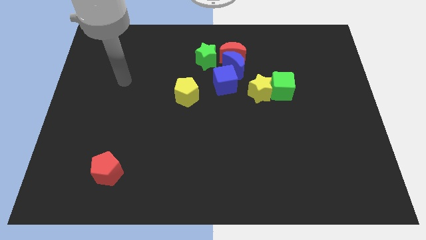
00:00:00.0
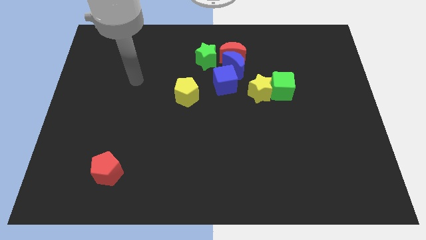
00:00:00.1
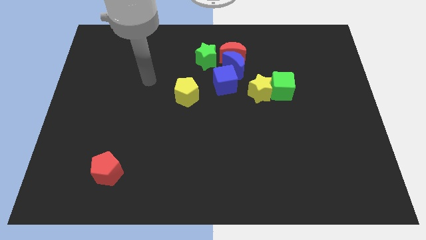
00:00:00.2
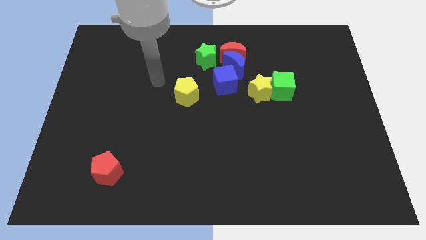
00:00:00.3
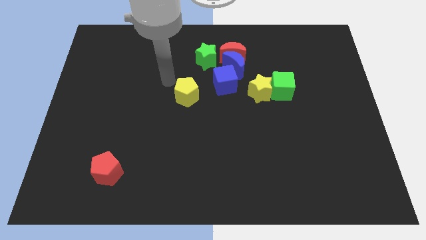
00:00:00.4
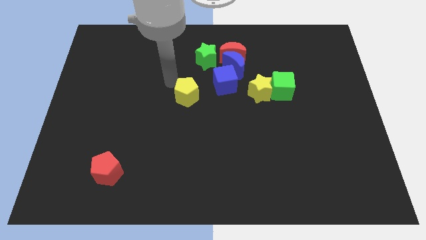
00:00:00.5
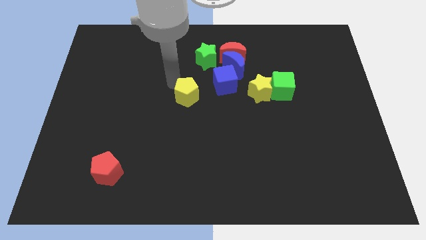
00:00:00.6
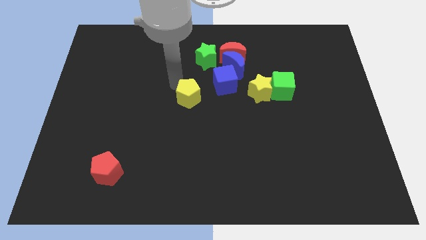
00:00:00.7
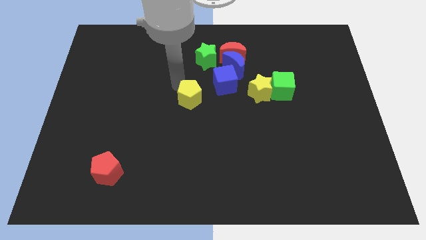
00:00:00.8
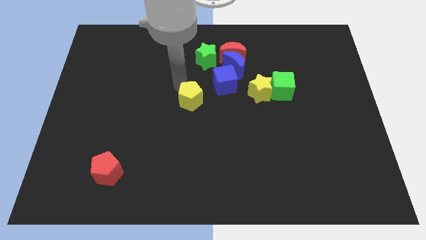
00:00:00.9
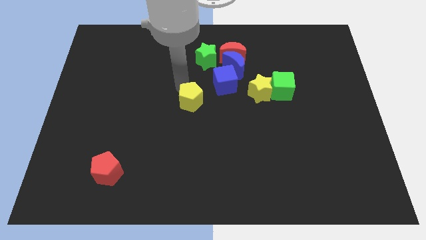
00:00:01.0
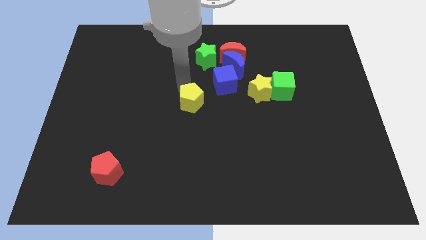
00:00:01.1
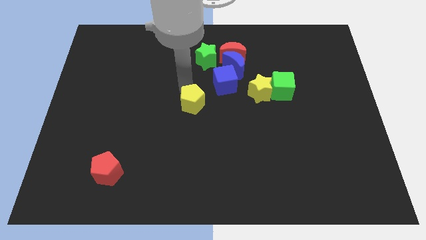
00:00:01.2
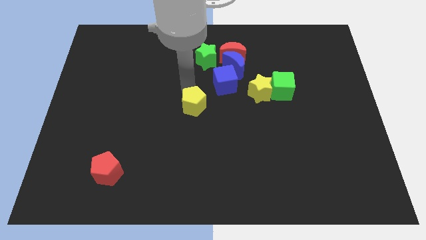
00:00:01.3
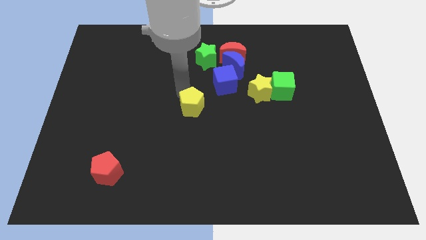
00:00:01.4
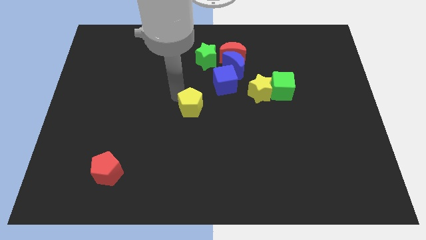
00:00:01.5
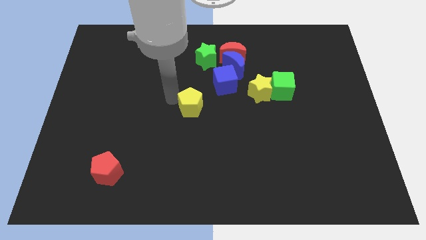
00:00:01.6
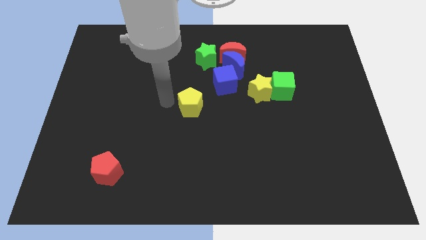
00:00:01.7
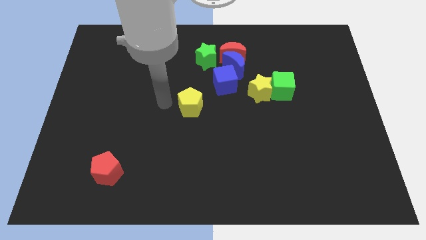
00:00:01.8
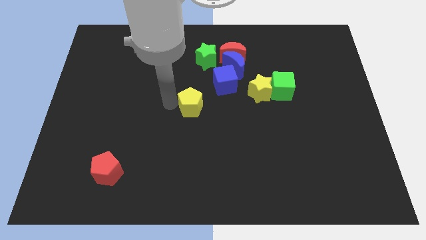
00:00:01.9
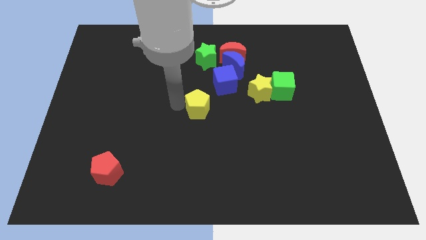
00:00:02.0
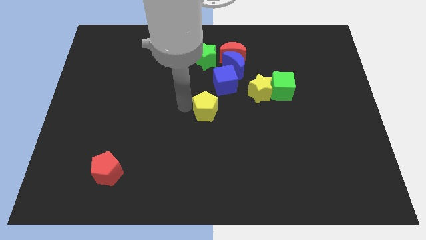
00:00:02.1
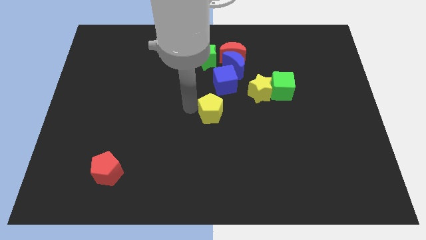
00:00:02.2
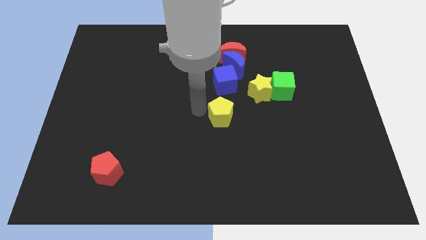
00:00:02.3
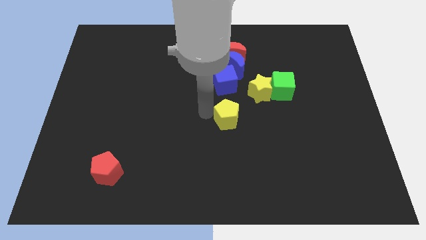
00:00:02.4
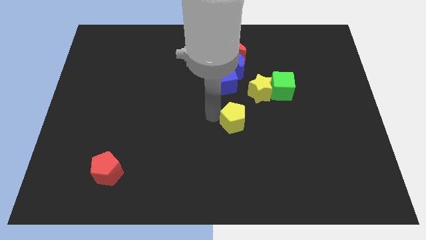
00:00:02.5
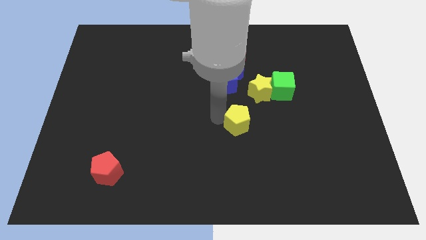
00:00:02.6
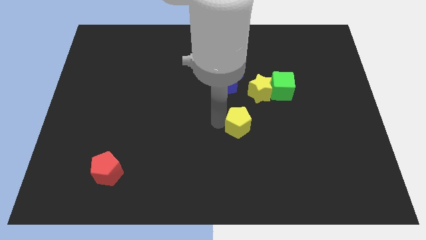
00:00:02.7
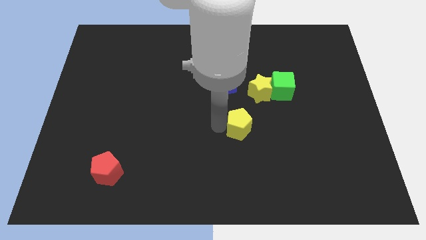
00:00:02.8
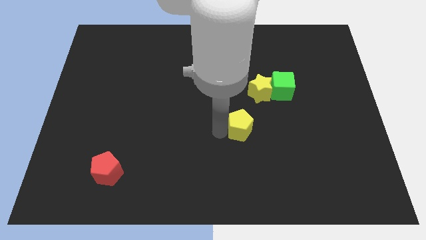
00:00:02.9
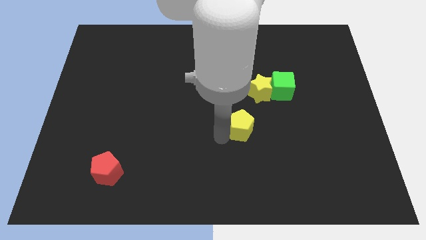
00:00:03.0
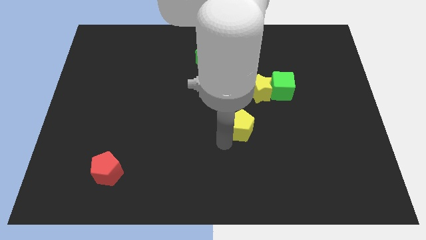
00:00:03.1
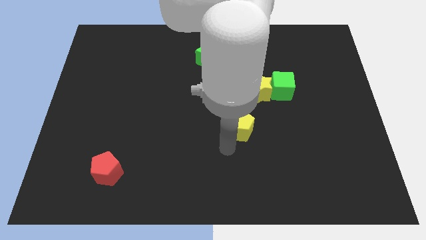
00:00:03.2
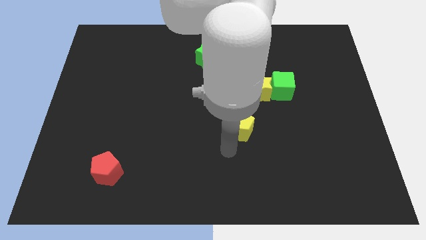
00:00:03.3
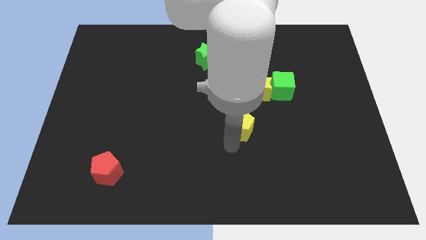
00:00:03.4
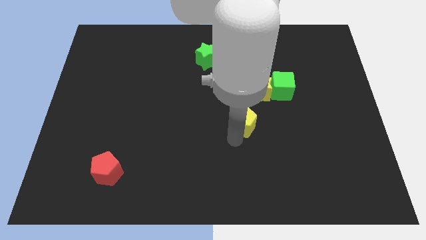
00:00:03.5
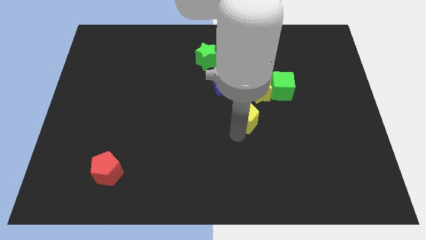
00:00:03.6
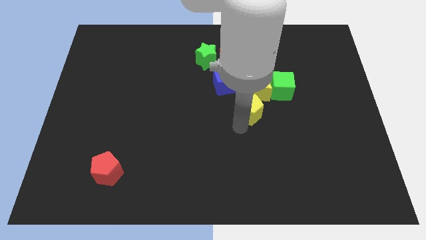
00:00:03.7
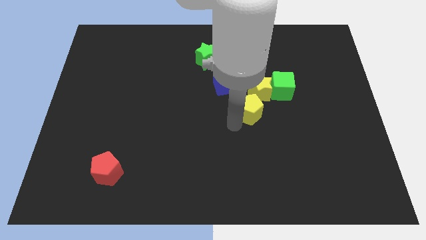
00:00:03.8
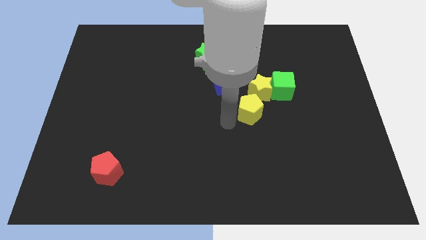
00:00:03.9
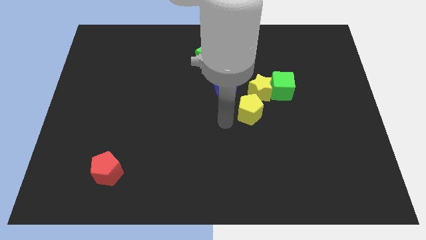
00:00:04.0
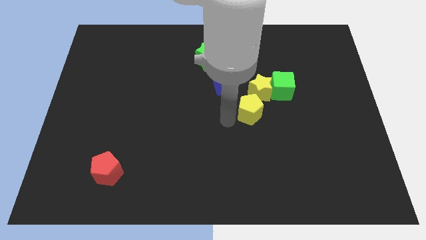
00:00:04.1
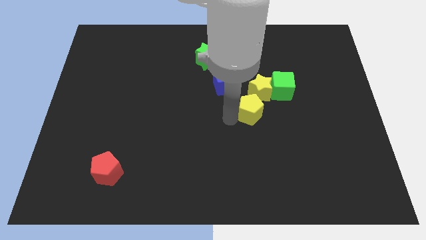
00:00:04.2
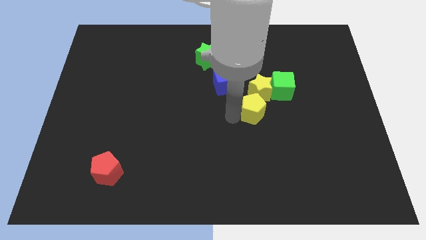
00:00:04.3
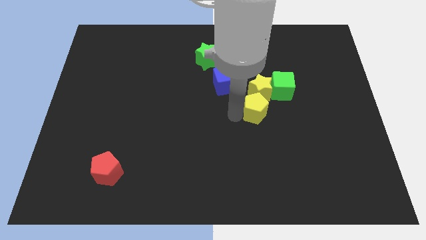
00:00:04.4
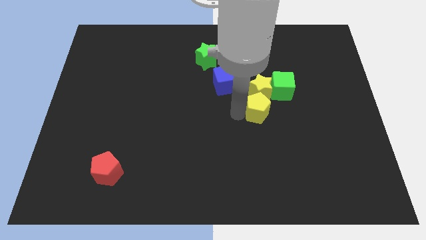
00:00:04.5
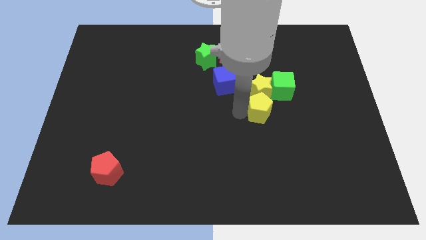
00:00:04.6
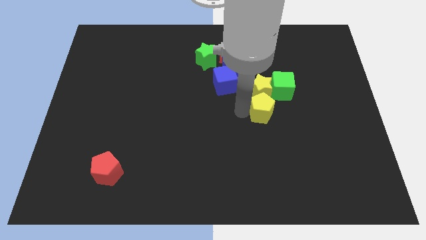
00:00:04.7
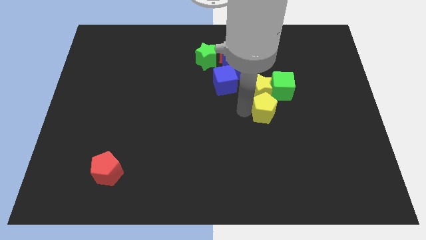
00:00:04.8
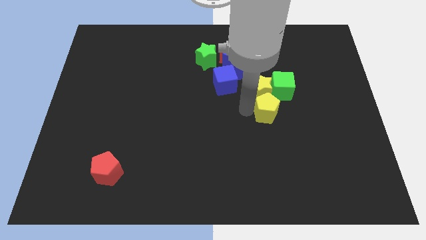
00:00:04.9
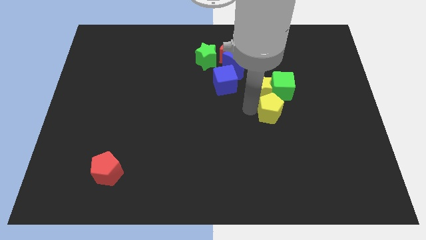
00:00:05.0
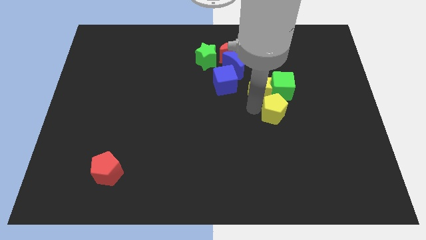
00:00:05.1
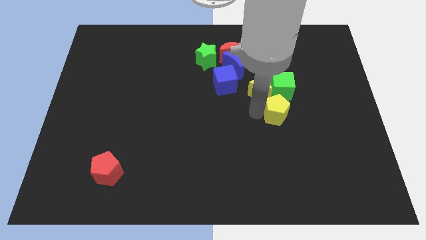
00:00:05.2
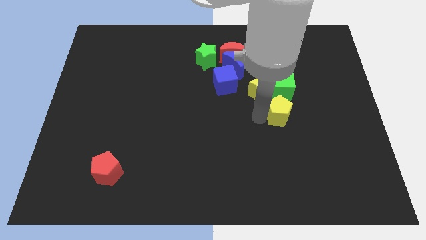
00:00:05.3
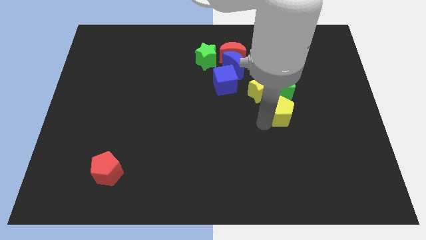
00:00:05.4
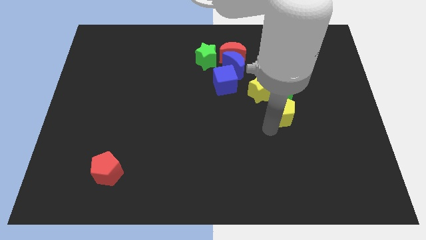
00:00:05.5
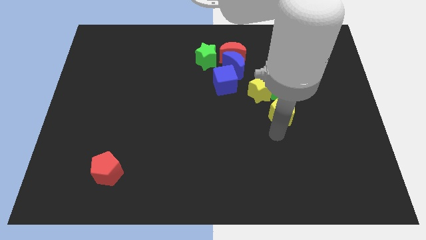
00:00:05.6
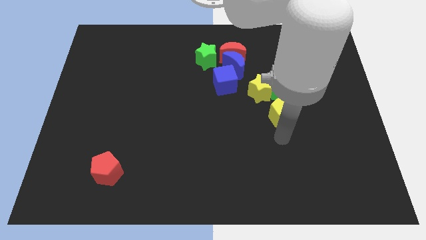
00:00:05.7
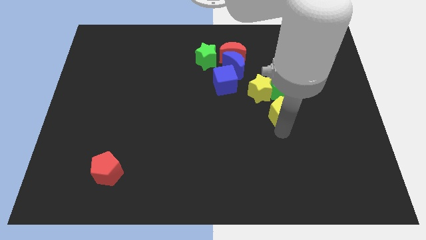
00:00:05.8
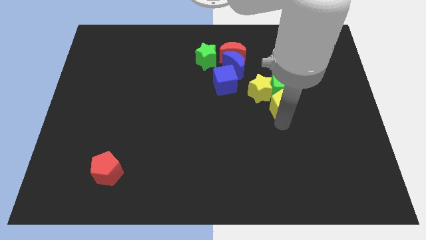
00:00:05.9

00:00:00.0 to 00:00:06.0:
move the yellow pentagon next to the green cube

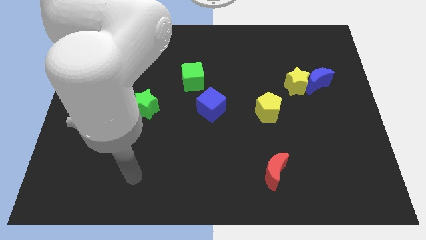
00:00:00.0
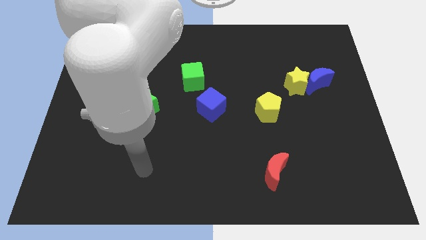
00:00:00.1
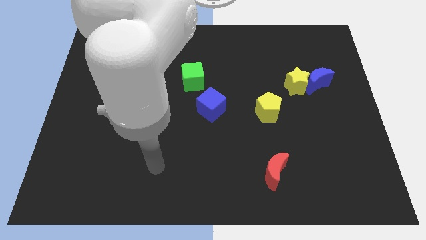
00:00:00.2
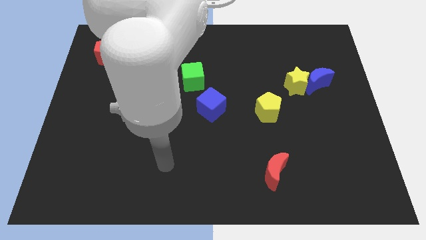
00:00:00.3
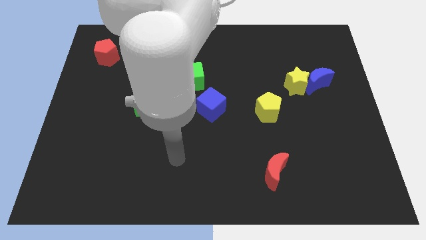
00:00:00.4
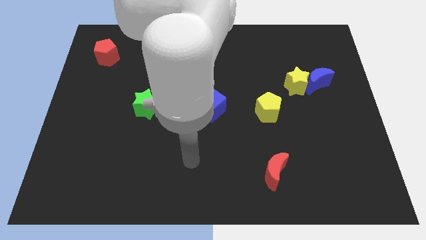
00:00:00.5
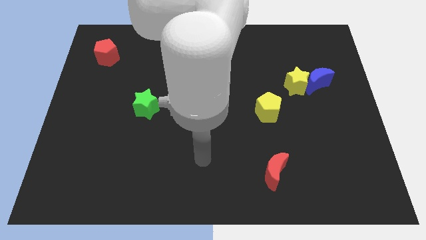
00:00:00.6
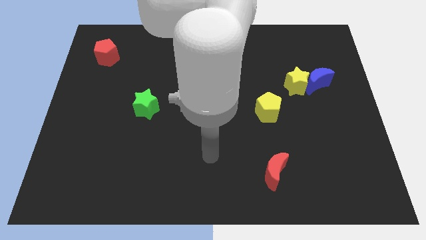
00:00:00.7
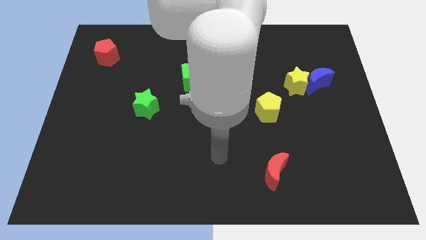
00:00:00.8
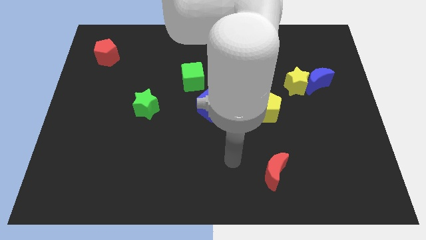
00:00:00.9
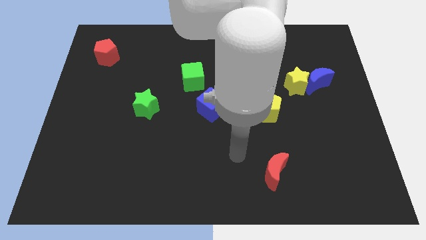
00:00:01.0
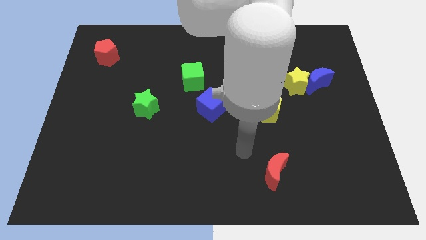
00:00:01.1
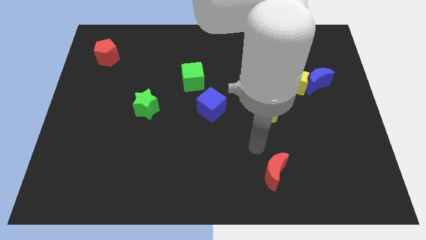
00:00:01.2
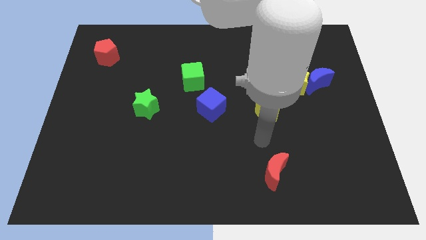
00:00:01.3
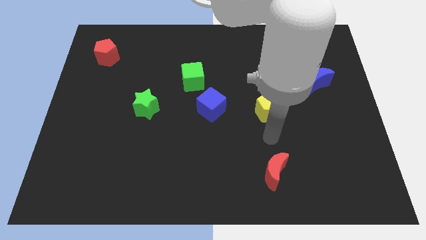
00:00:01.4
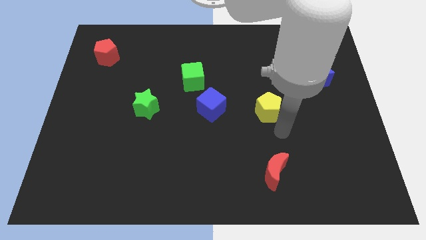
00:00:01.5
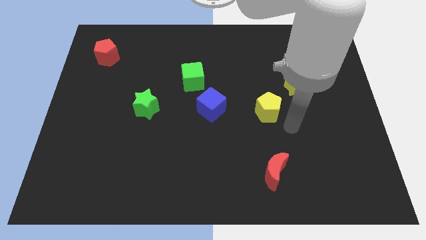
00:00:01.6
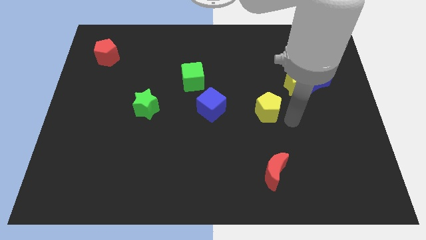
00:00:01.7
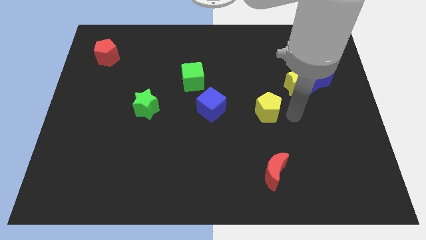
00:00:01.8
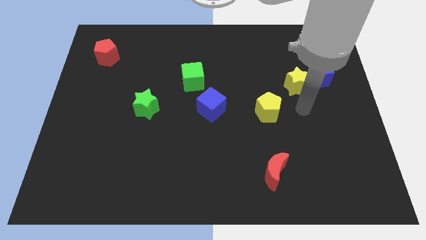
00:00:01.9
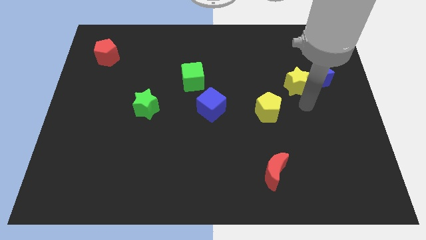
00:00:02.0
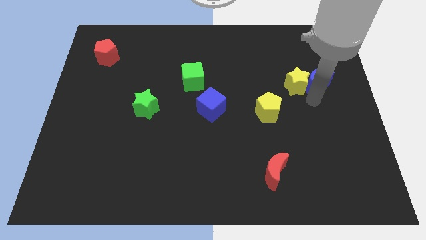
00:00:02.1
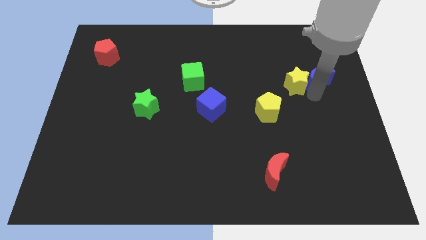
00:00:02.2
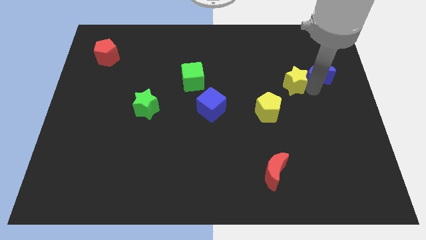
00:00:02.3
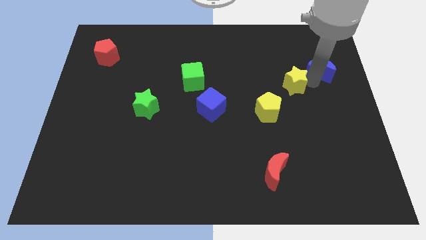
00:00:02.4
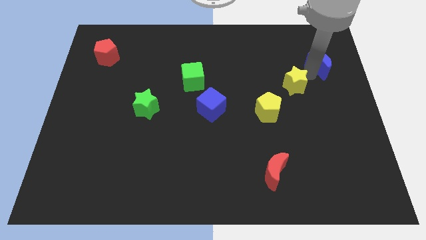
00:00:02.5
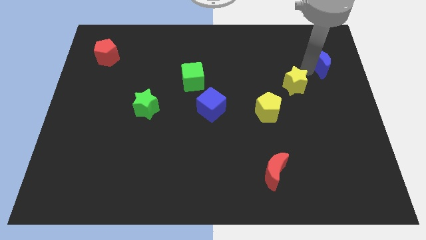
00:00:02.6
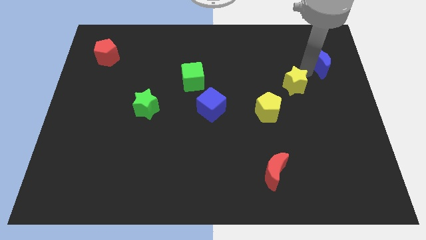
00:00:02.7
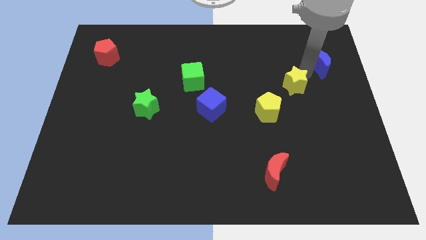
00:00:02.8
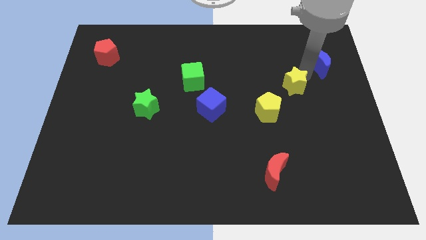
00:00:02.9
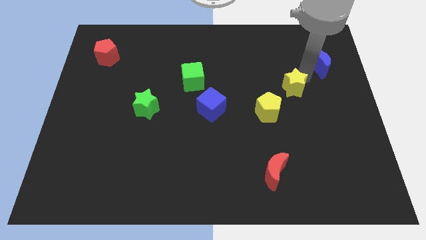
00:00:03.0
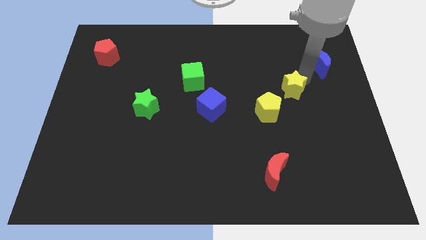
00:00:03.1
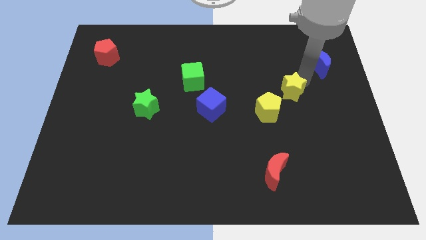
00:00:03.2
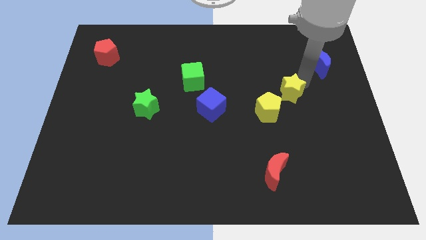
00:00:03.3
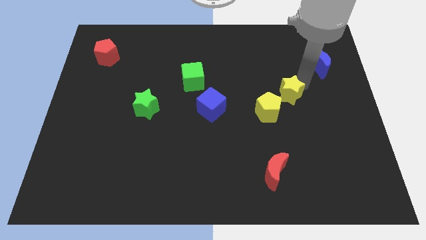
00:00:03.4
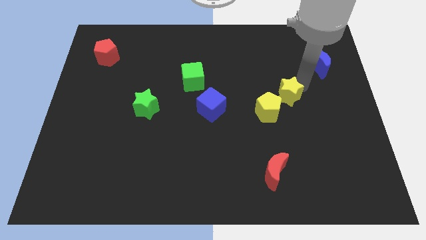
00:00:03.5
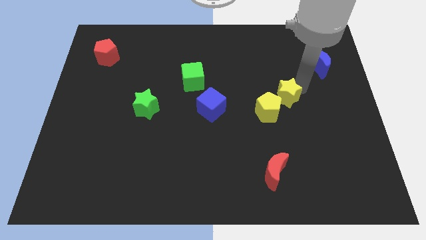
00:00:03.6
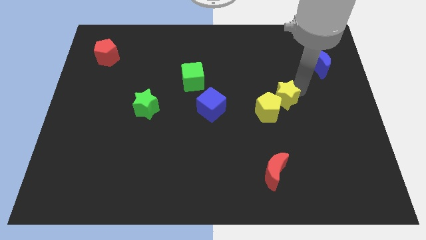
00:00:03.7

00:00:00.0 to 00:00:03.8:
slide the yellow star next to the yellow pentagon
